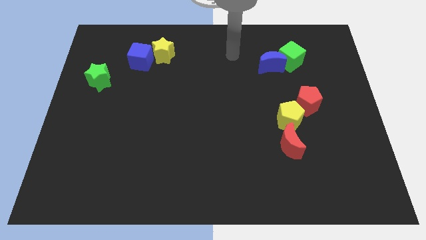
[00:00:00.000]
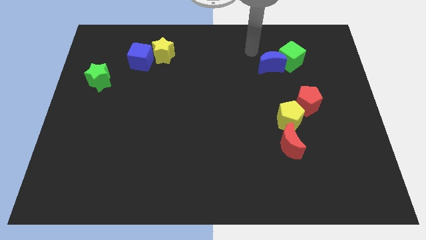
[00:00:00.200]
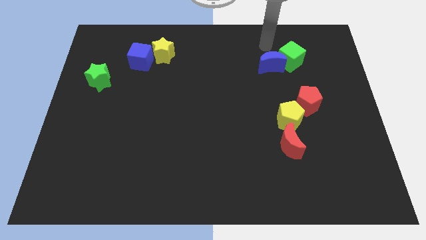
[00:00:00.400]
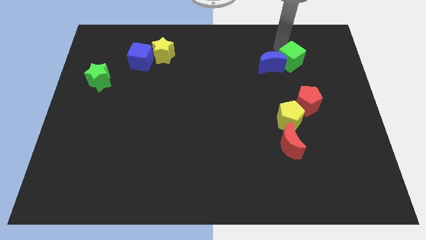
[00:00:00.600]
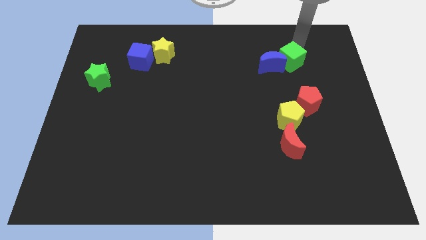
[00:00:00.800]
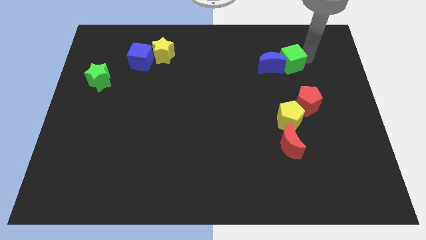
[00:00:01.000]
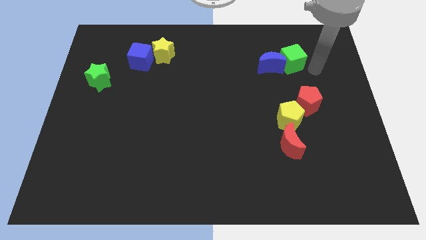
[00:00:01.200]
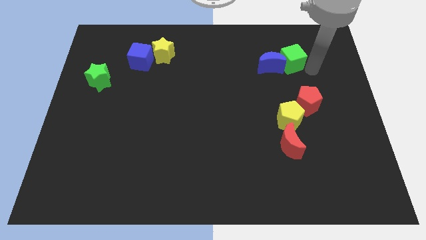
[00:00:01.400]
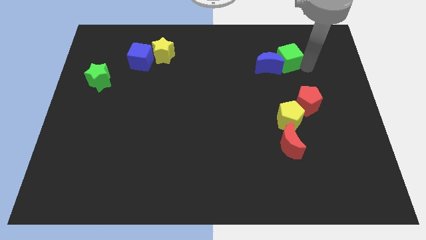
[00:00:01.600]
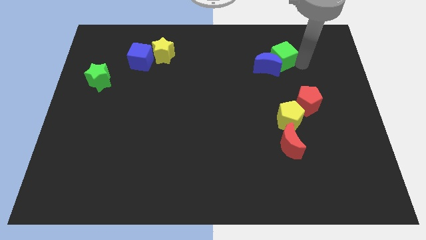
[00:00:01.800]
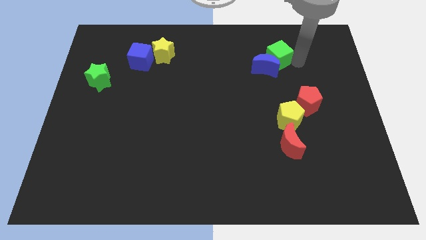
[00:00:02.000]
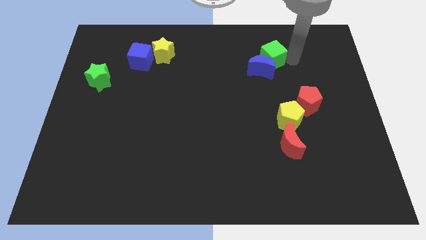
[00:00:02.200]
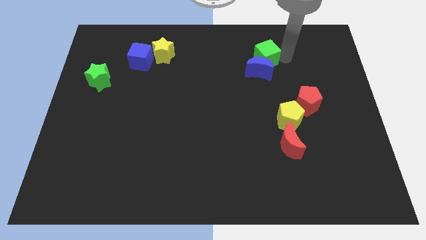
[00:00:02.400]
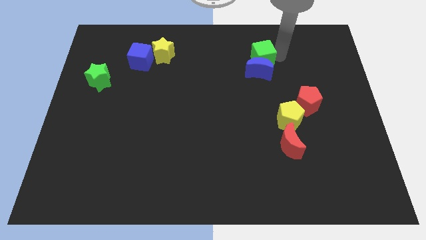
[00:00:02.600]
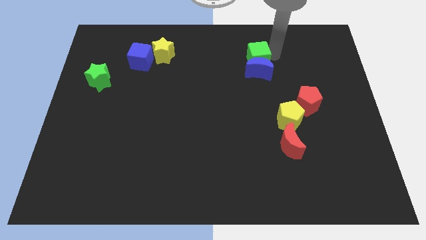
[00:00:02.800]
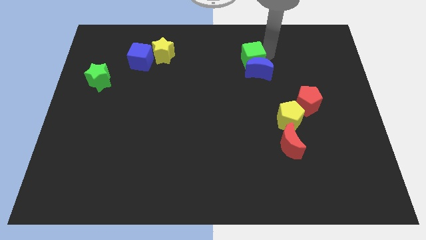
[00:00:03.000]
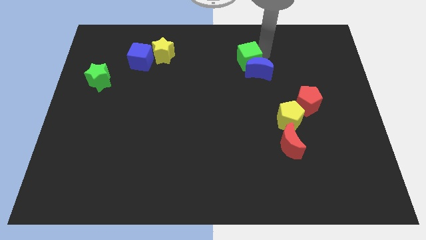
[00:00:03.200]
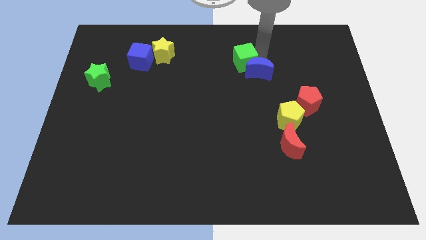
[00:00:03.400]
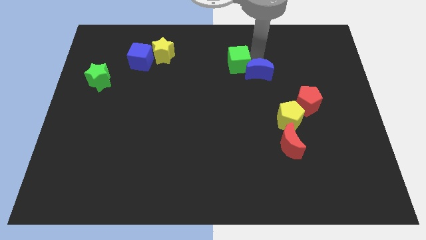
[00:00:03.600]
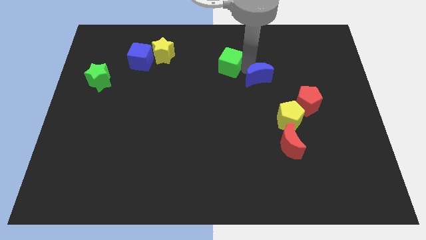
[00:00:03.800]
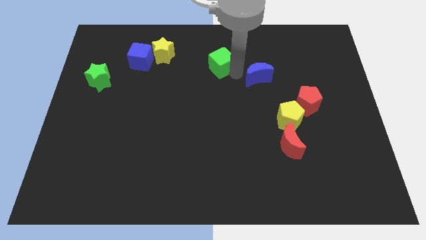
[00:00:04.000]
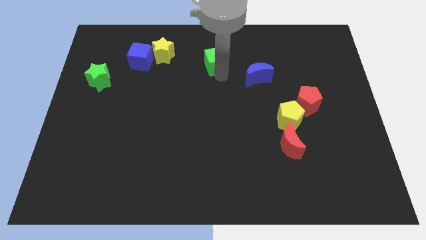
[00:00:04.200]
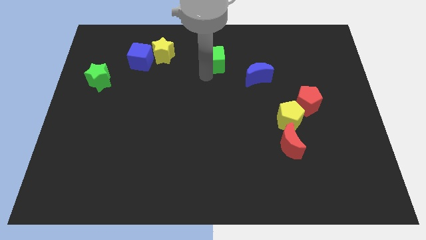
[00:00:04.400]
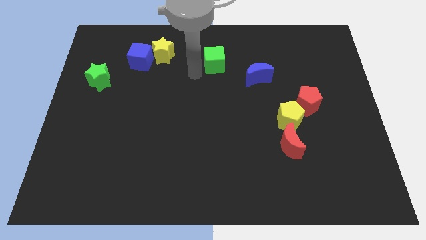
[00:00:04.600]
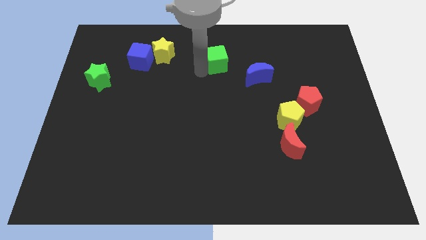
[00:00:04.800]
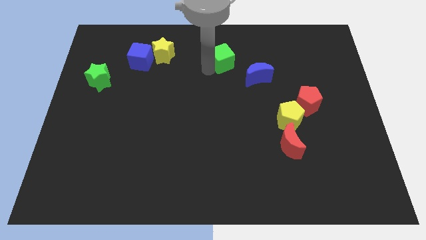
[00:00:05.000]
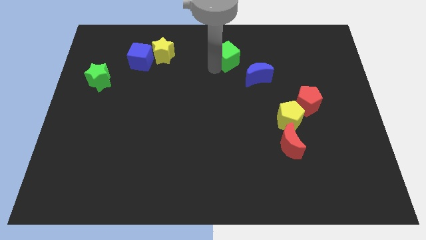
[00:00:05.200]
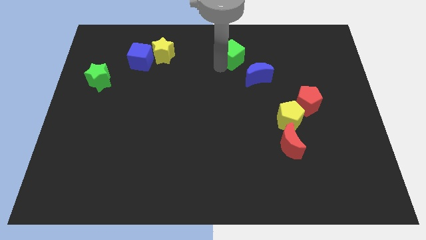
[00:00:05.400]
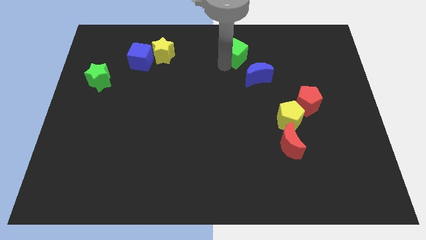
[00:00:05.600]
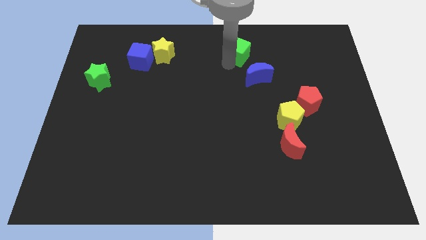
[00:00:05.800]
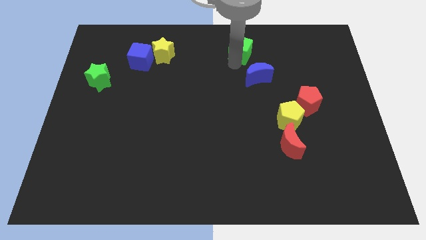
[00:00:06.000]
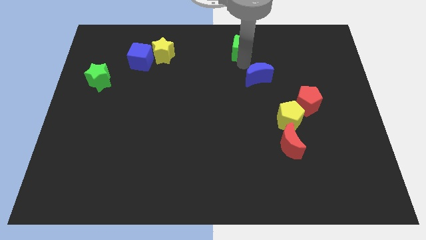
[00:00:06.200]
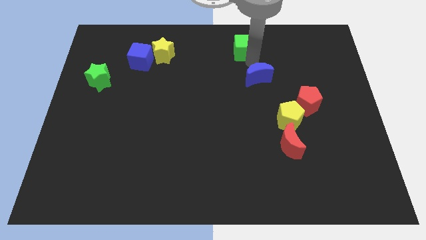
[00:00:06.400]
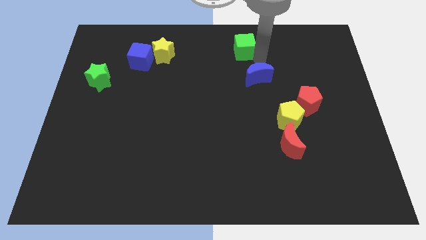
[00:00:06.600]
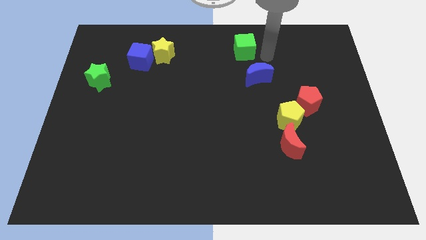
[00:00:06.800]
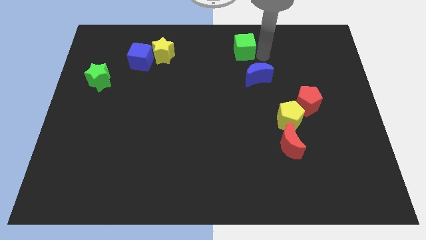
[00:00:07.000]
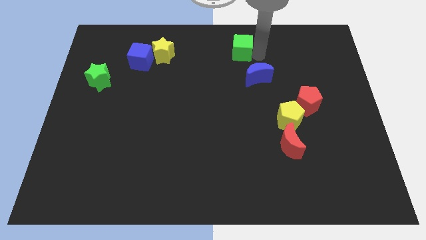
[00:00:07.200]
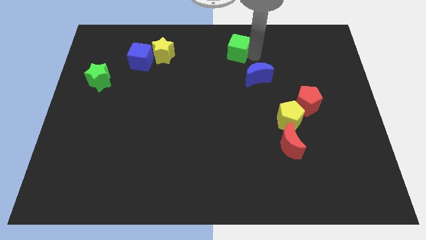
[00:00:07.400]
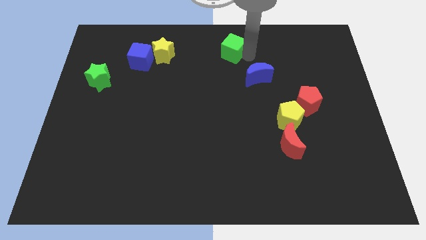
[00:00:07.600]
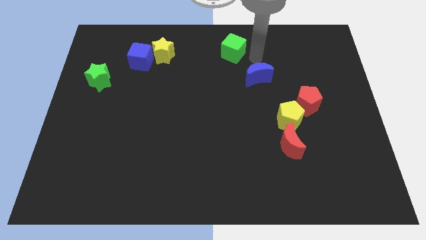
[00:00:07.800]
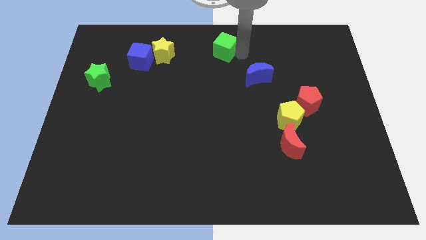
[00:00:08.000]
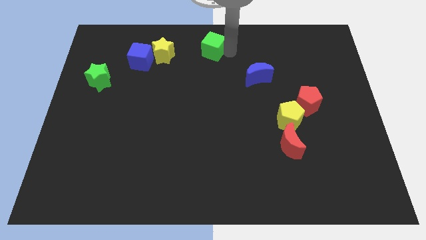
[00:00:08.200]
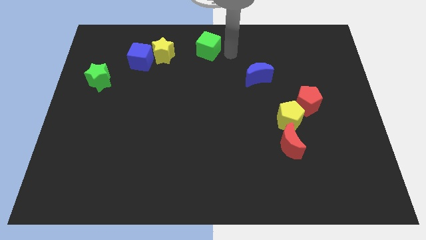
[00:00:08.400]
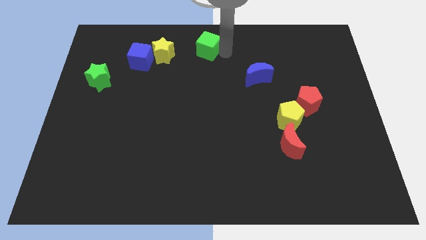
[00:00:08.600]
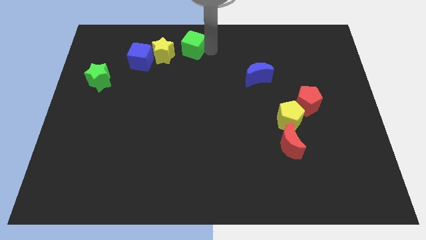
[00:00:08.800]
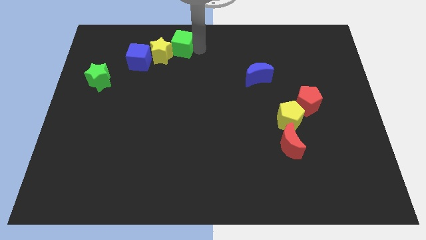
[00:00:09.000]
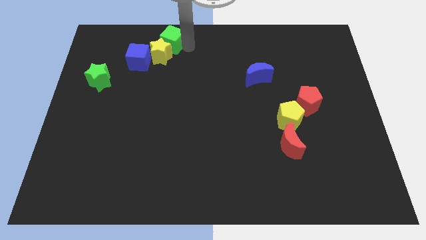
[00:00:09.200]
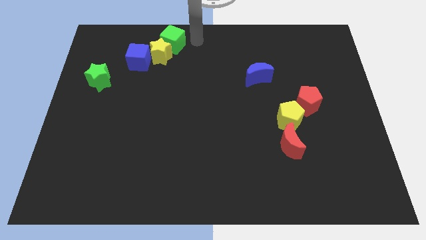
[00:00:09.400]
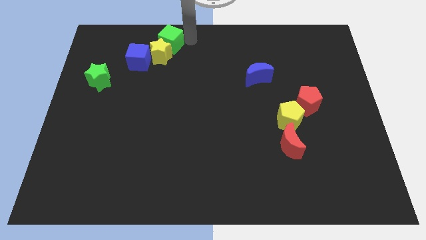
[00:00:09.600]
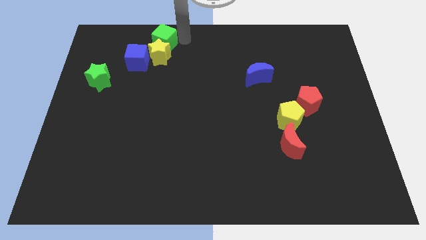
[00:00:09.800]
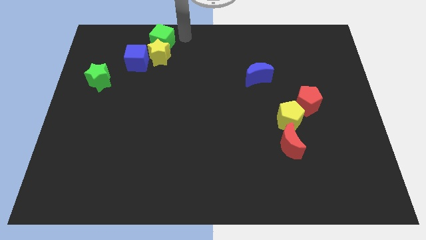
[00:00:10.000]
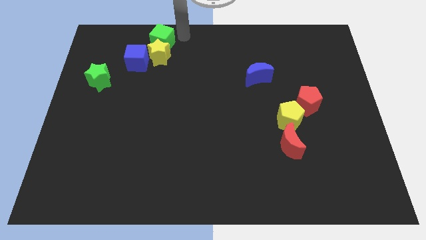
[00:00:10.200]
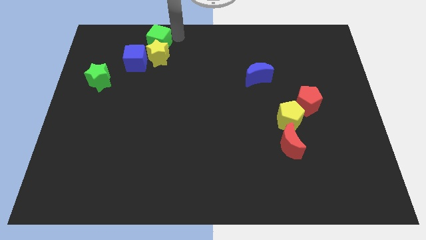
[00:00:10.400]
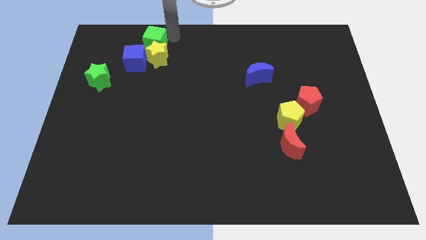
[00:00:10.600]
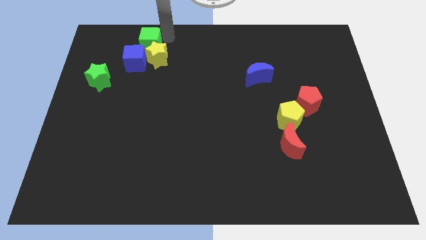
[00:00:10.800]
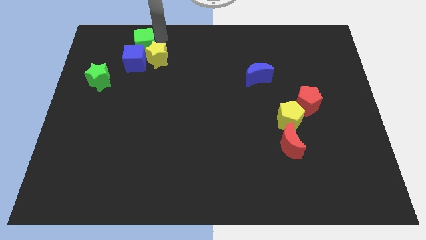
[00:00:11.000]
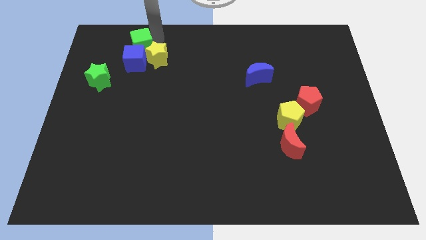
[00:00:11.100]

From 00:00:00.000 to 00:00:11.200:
put the green cube just left of the yellow star
